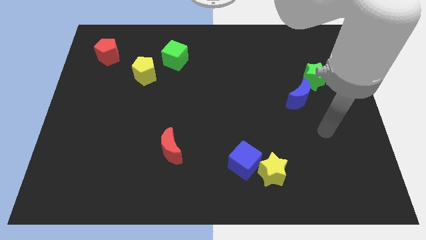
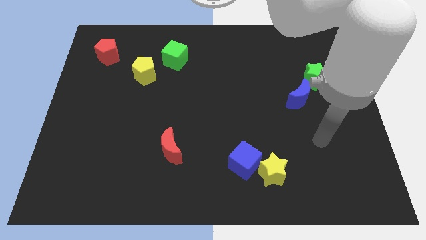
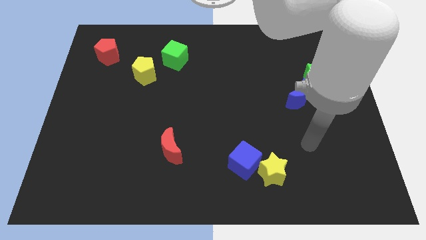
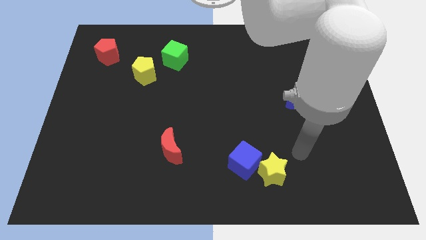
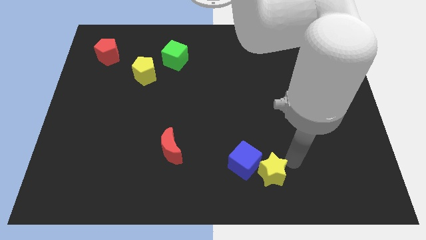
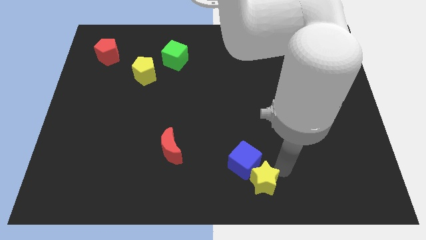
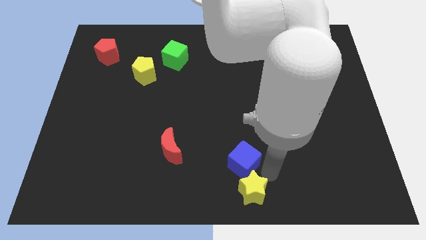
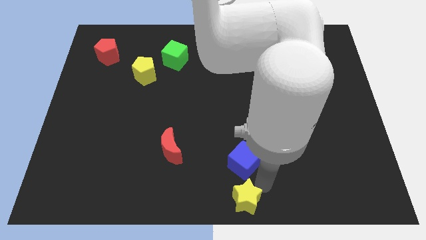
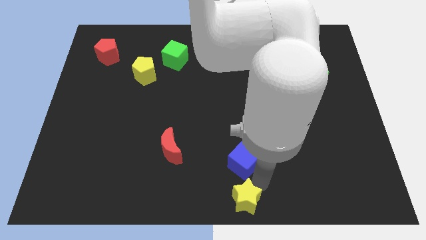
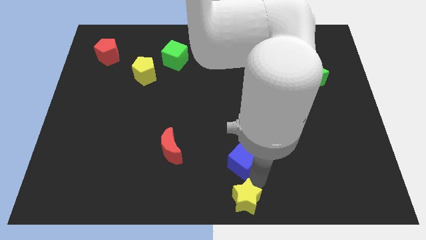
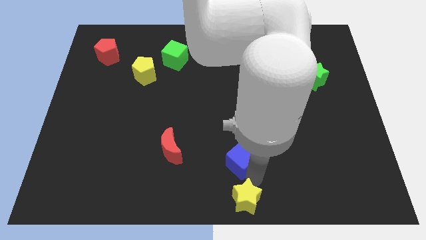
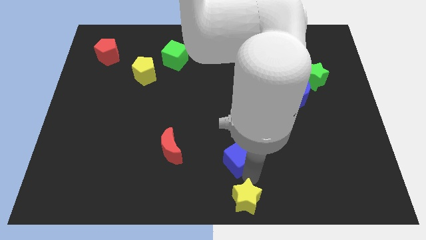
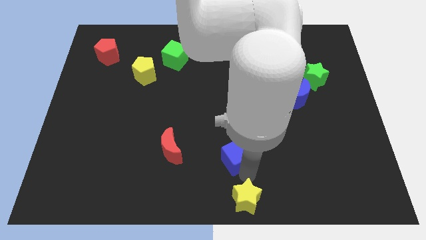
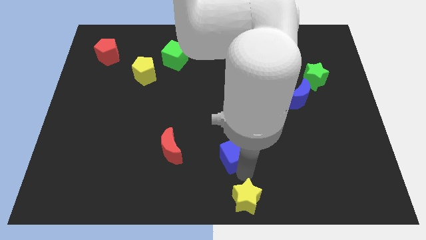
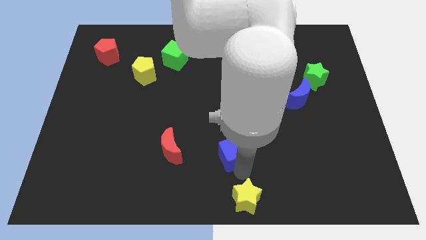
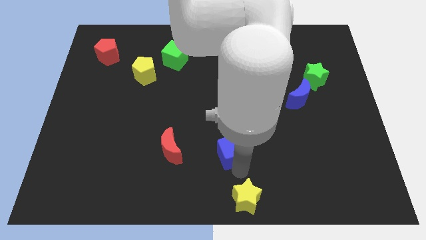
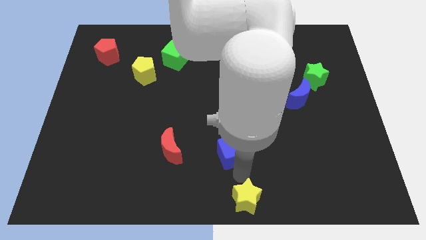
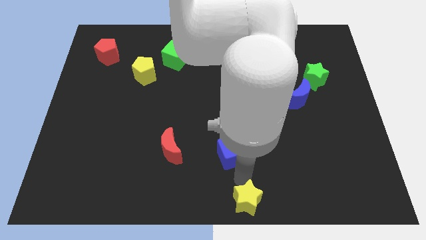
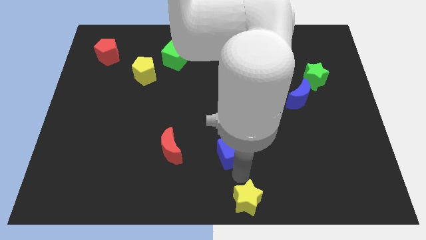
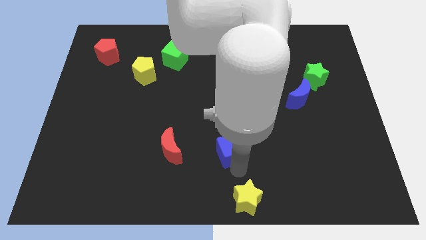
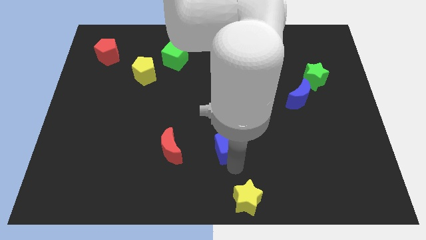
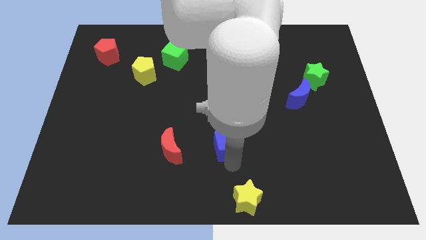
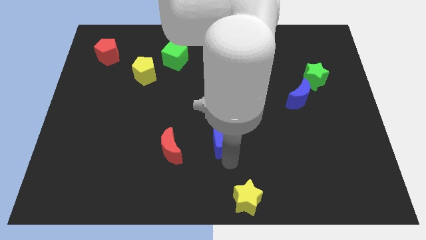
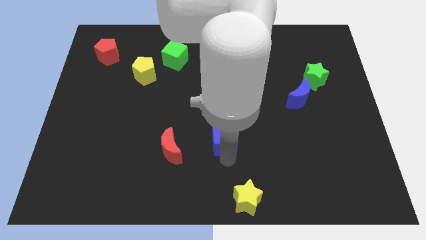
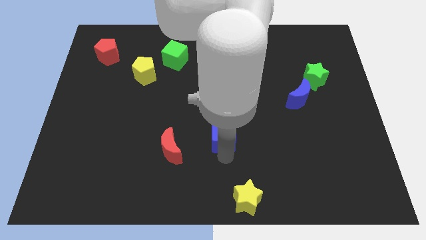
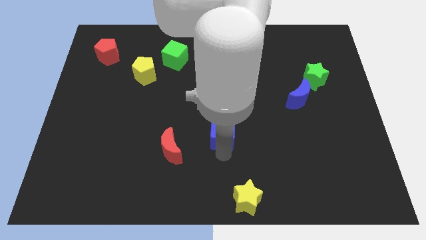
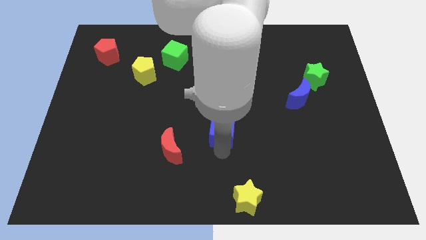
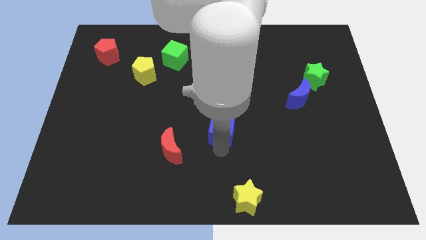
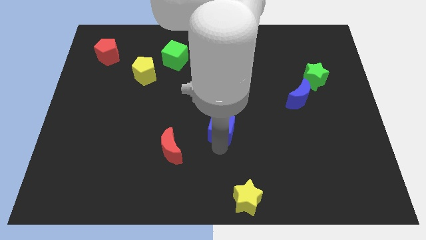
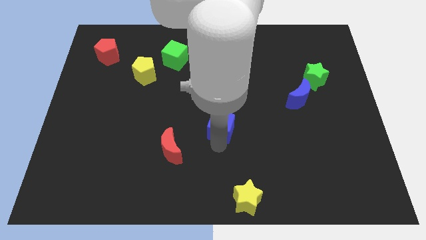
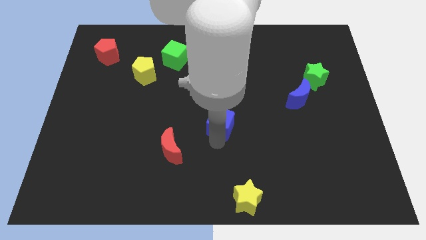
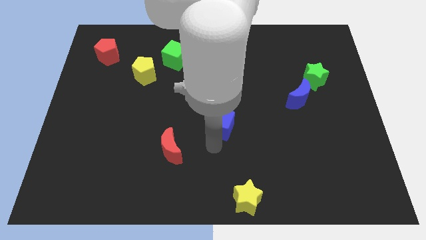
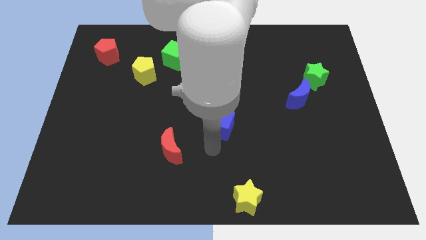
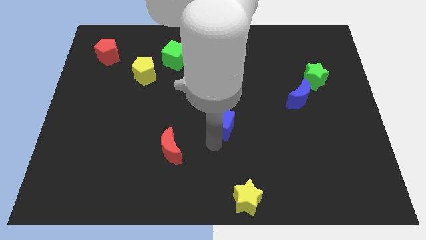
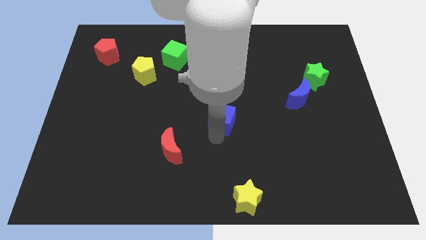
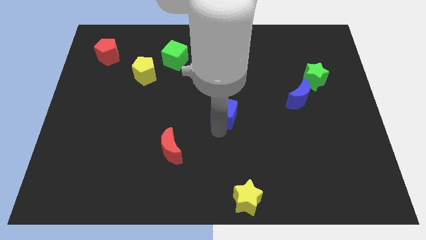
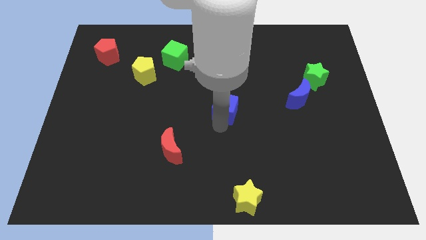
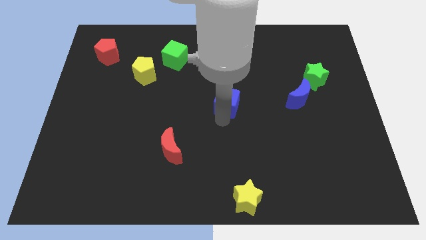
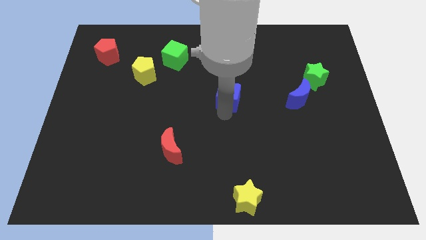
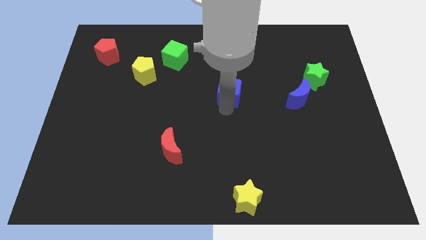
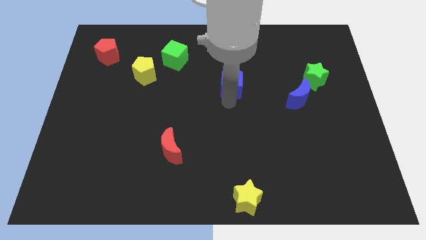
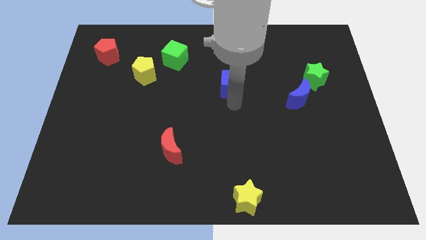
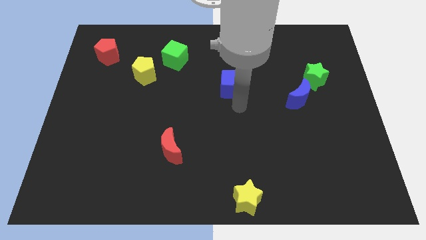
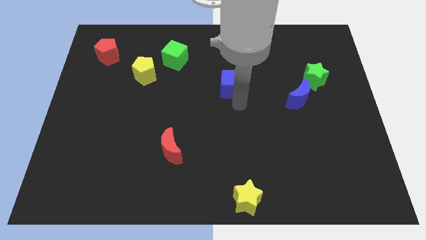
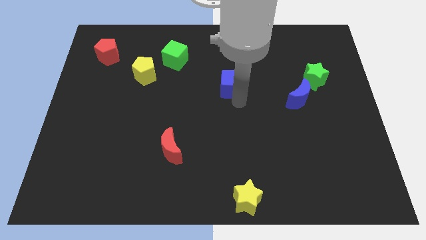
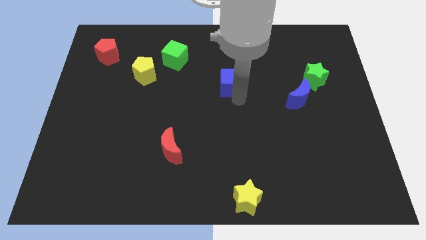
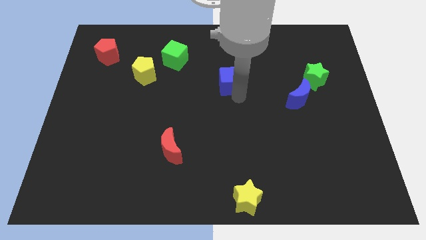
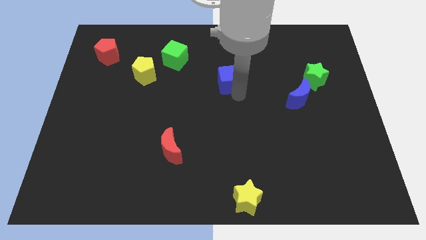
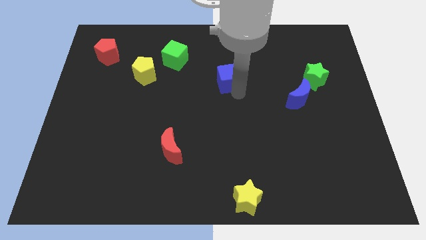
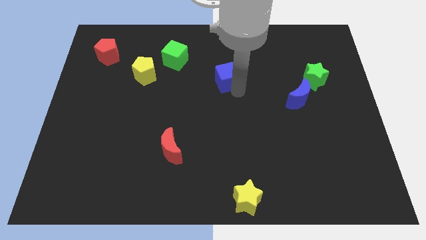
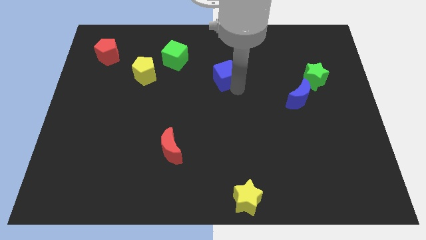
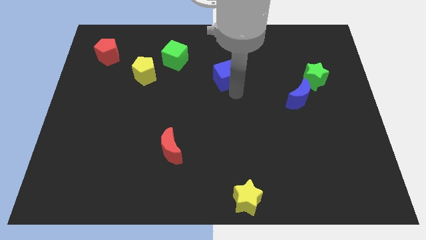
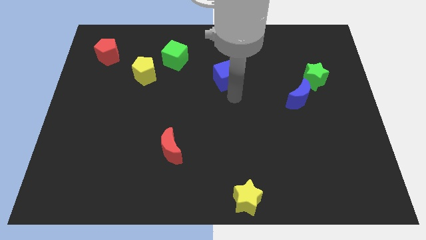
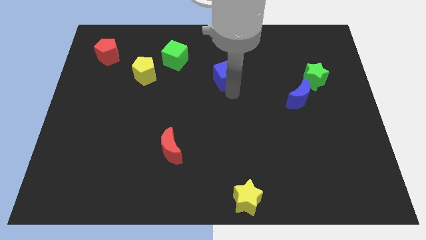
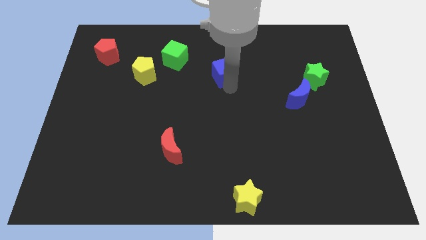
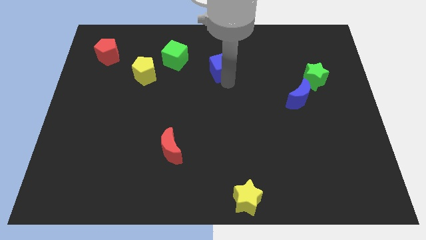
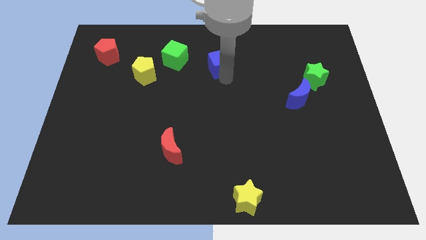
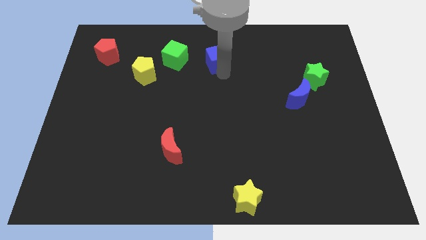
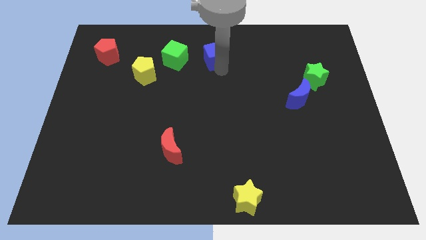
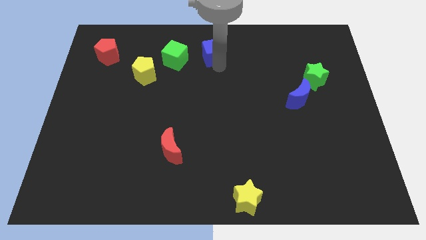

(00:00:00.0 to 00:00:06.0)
slide the blue cube to the top side

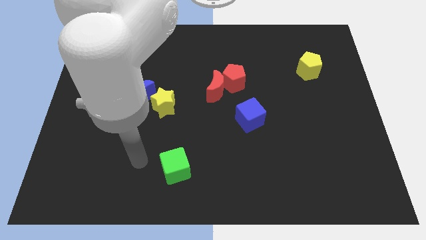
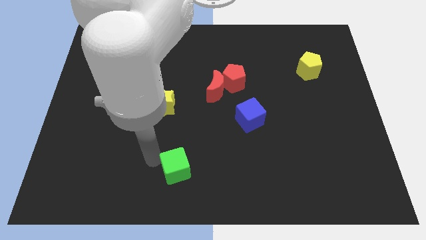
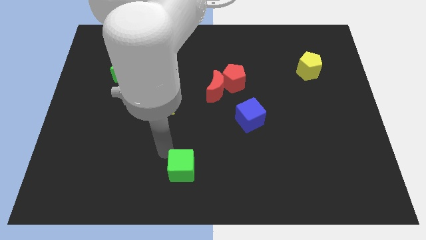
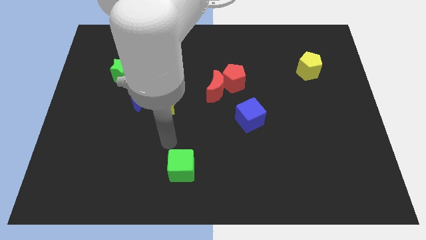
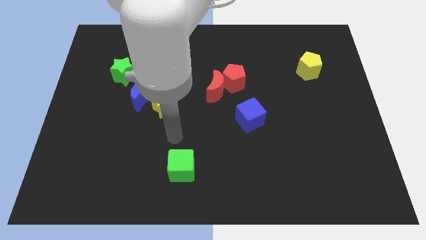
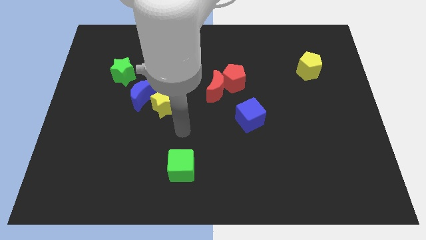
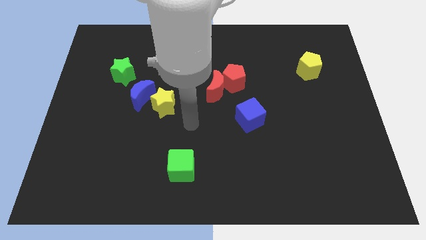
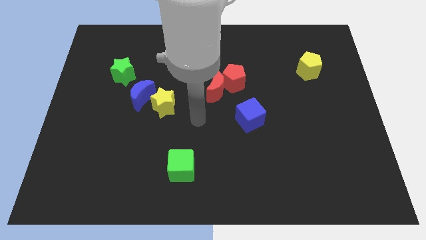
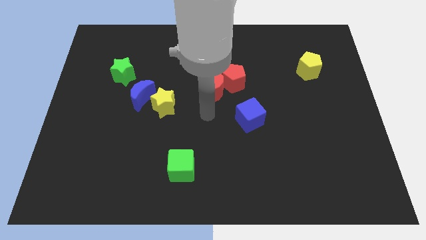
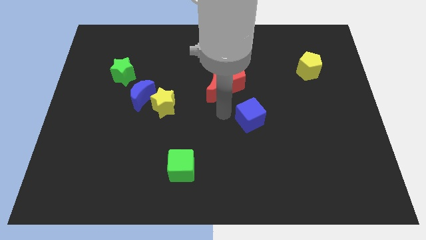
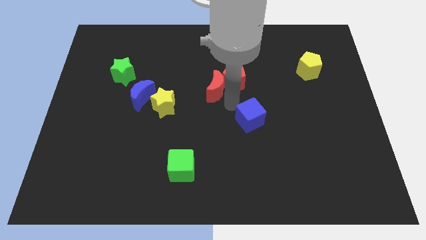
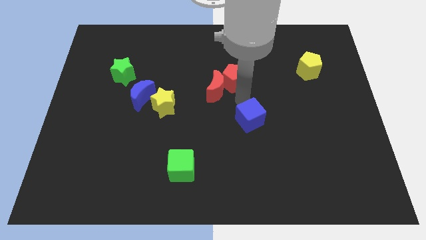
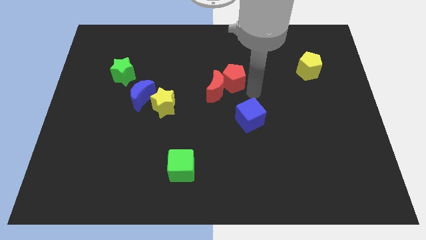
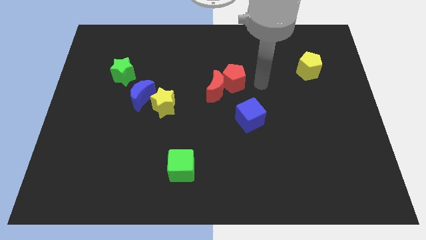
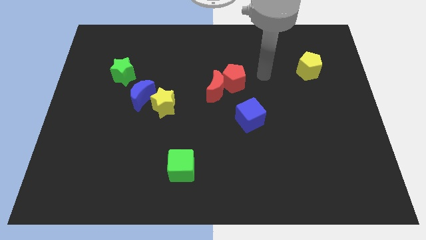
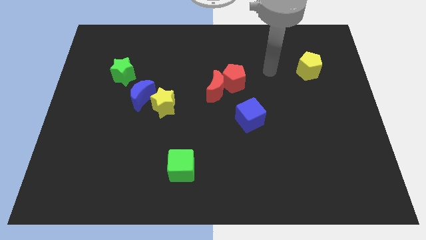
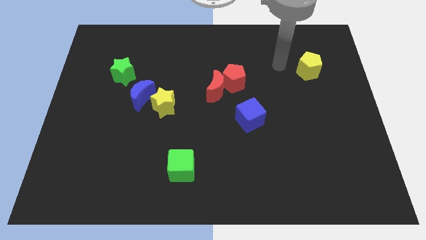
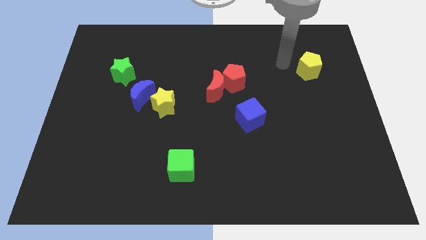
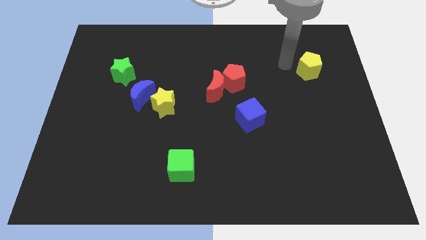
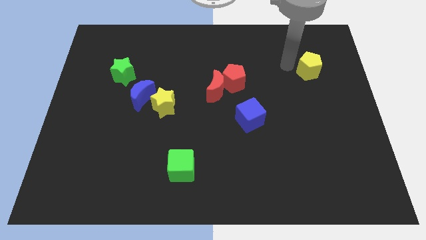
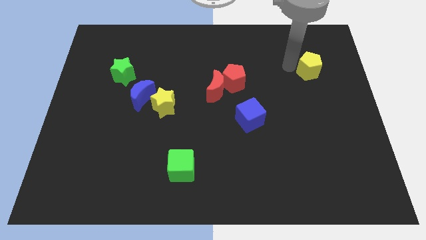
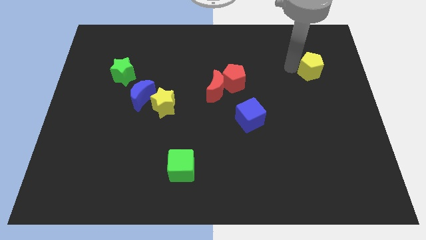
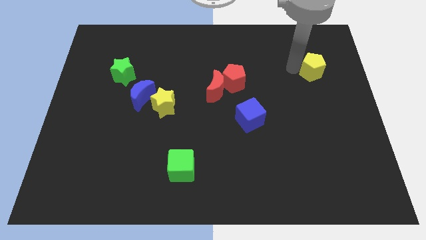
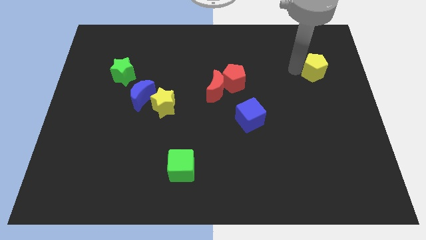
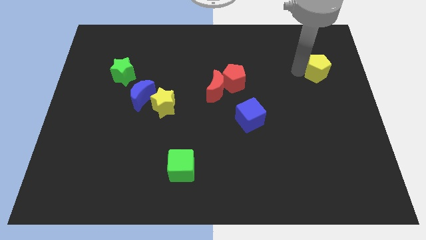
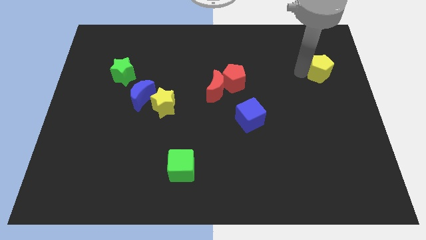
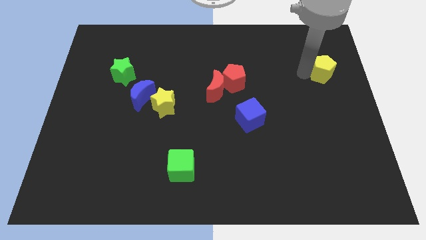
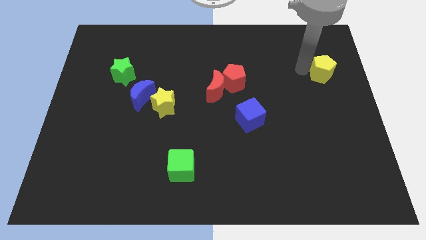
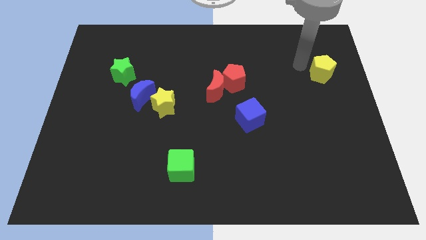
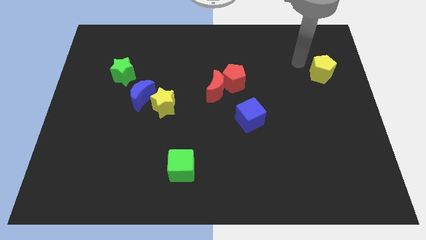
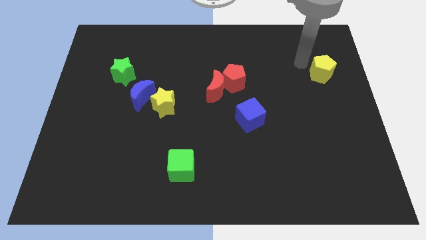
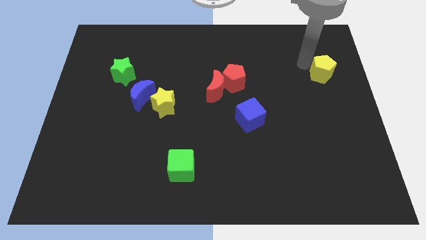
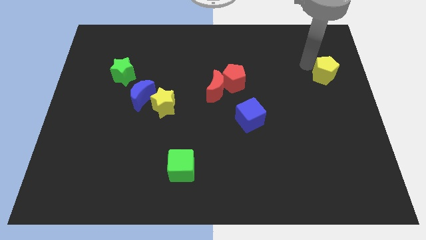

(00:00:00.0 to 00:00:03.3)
put the yellow pentagon to the right side of the board
